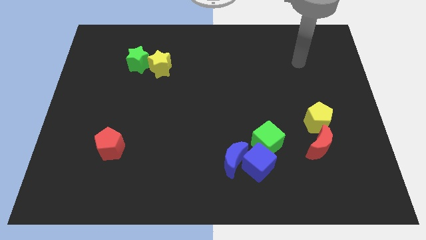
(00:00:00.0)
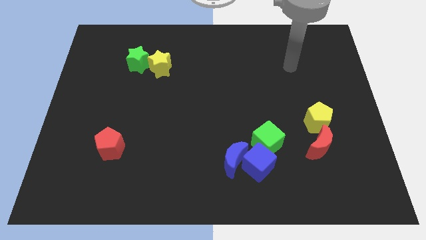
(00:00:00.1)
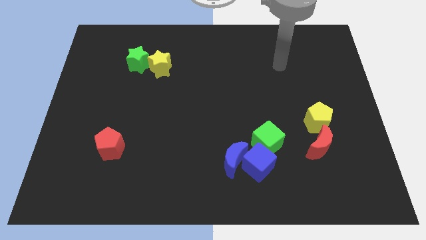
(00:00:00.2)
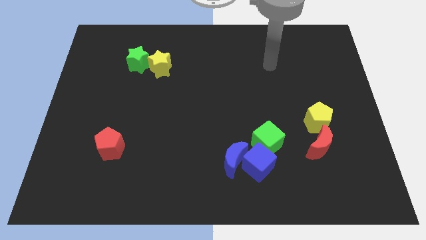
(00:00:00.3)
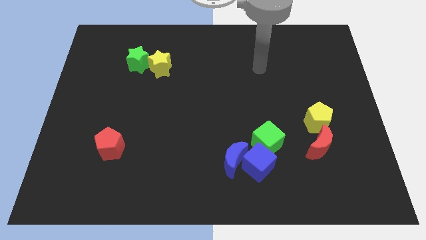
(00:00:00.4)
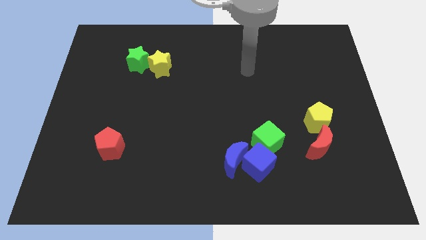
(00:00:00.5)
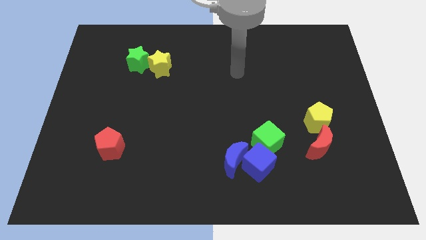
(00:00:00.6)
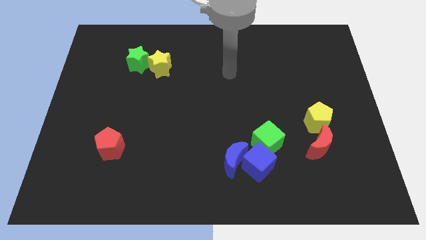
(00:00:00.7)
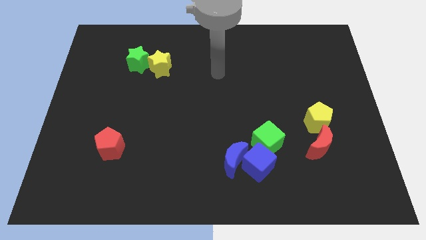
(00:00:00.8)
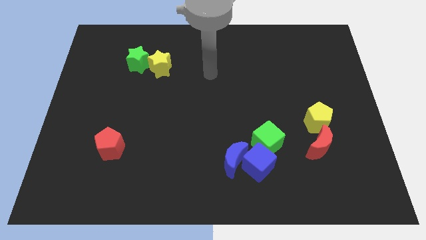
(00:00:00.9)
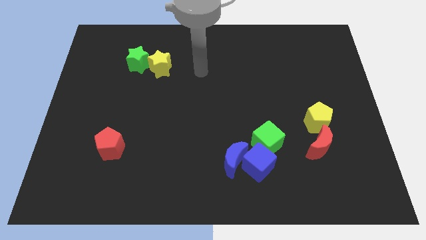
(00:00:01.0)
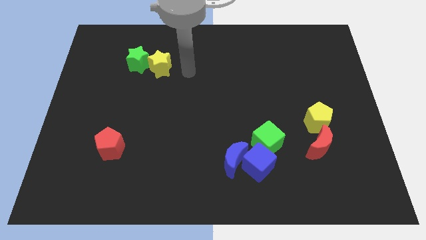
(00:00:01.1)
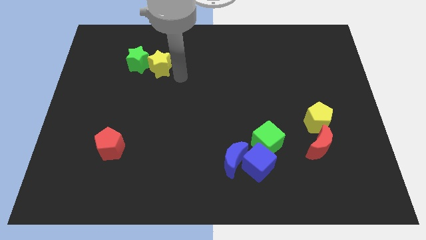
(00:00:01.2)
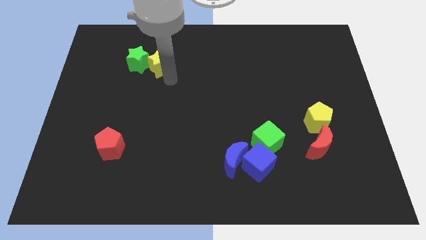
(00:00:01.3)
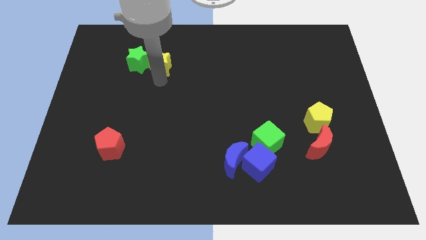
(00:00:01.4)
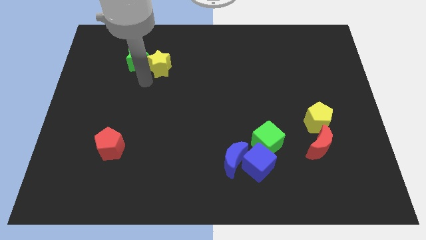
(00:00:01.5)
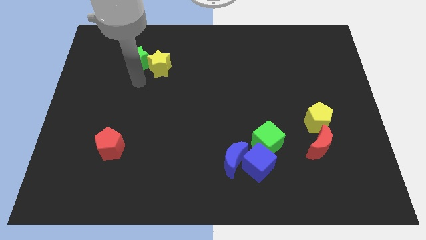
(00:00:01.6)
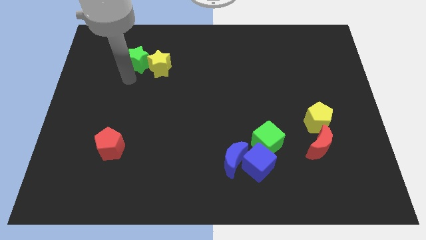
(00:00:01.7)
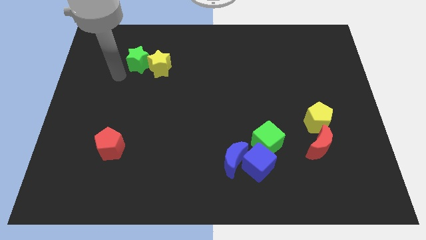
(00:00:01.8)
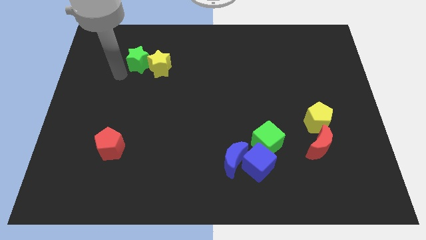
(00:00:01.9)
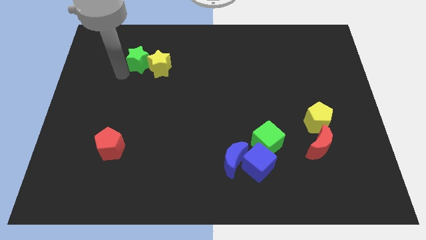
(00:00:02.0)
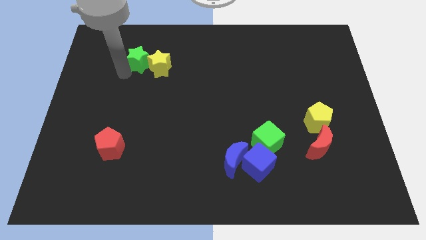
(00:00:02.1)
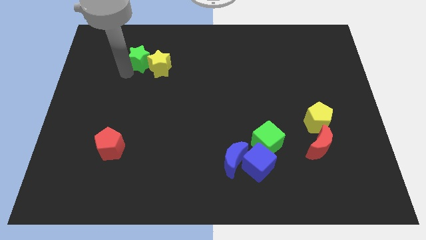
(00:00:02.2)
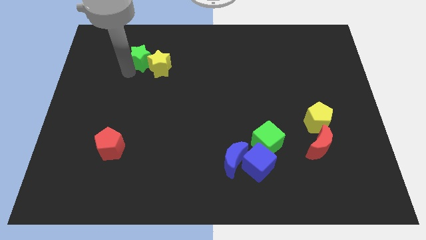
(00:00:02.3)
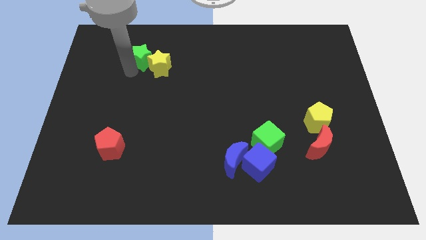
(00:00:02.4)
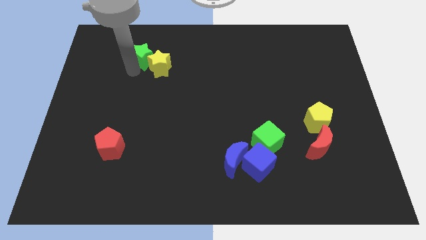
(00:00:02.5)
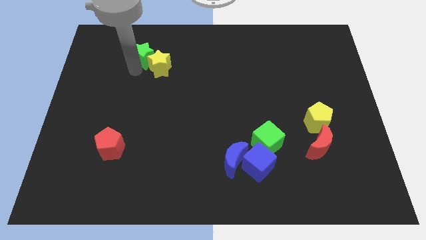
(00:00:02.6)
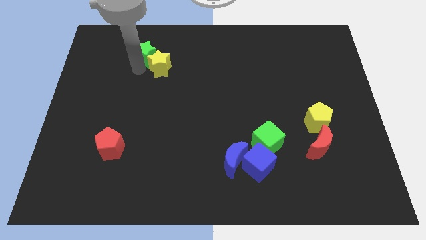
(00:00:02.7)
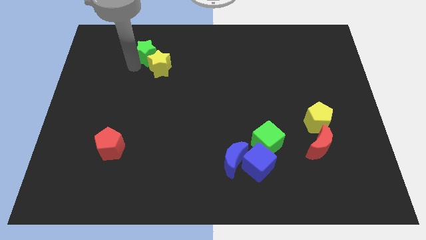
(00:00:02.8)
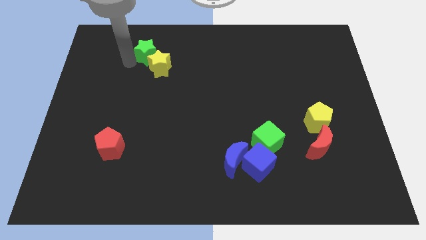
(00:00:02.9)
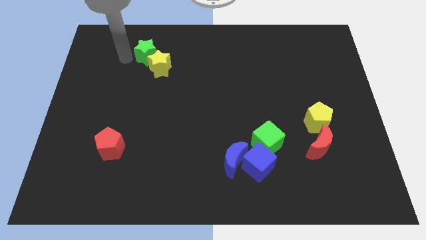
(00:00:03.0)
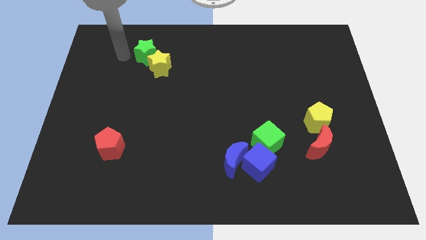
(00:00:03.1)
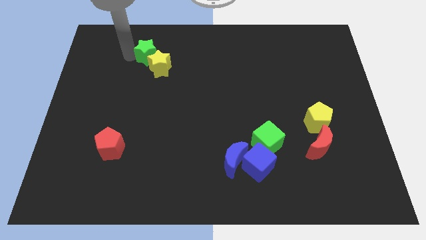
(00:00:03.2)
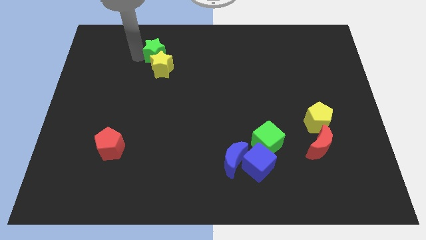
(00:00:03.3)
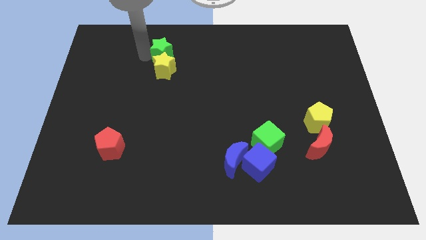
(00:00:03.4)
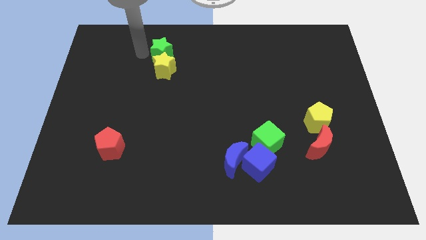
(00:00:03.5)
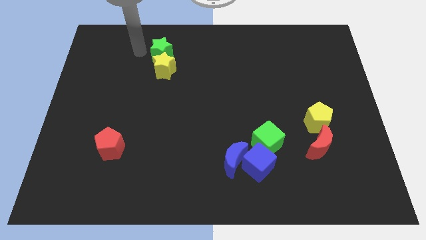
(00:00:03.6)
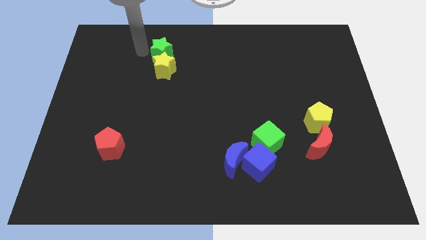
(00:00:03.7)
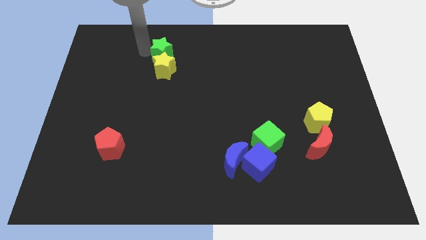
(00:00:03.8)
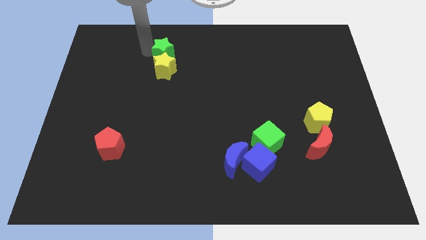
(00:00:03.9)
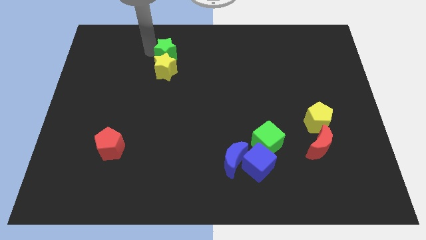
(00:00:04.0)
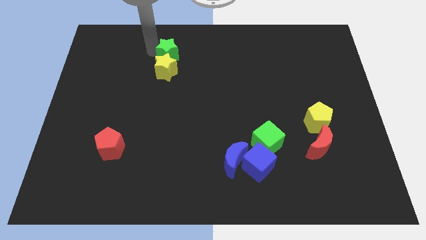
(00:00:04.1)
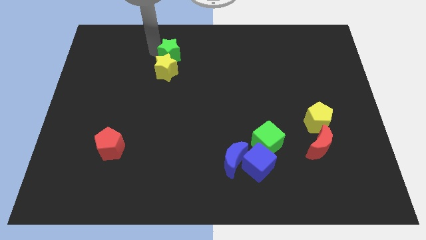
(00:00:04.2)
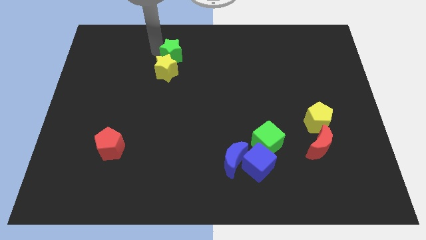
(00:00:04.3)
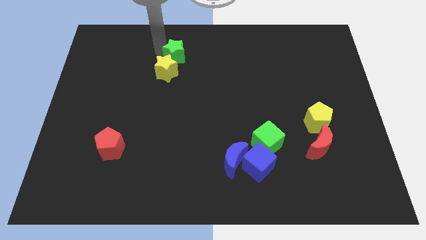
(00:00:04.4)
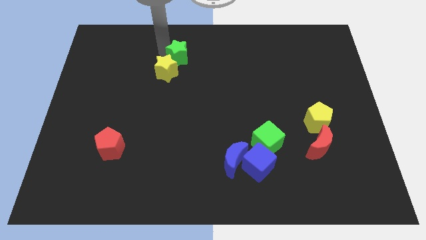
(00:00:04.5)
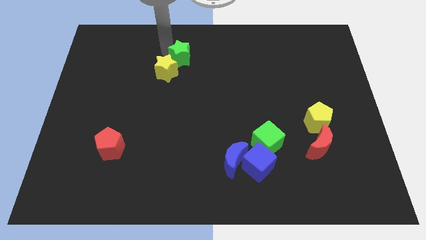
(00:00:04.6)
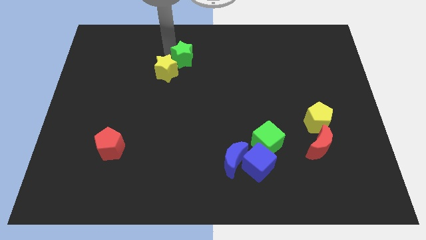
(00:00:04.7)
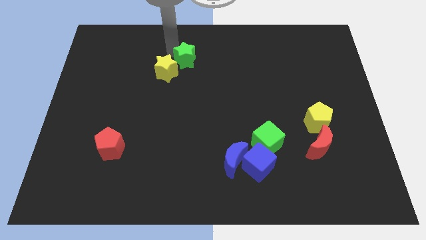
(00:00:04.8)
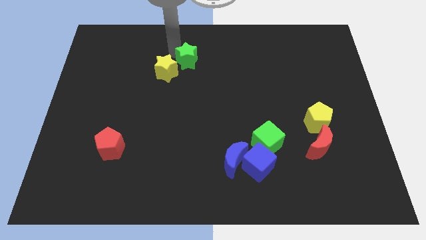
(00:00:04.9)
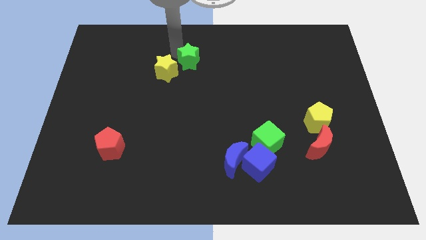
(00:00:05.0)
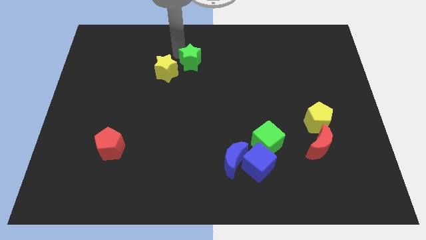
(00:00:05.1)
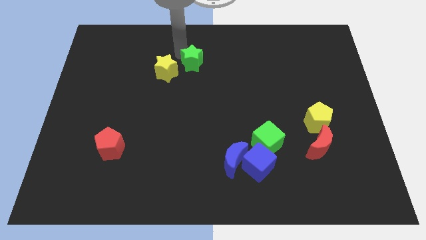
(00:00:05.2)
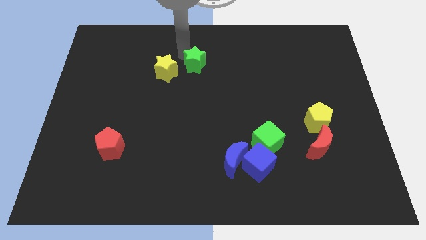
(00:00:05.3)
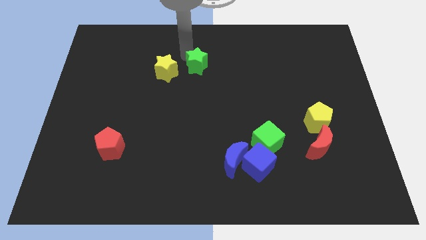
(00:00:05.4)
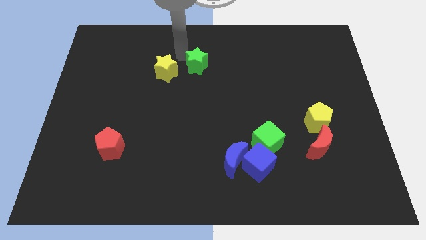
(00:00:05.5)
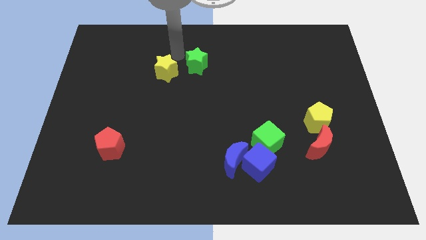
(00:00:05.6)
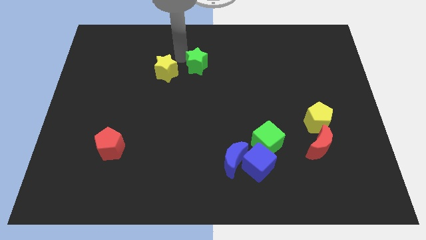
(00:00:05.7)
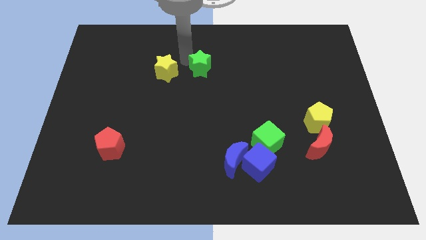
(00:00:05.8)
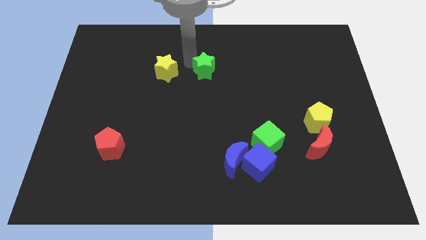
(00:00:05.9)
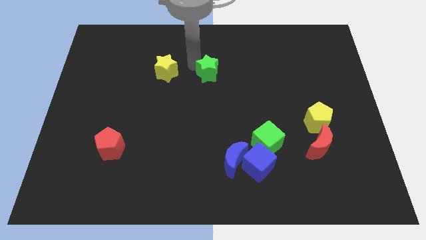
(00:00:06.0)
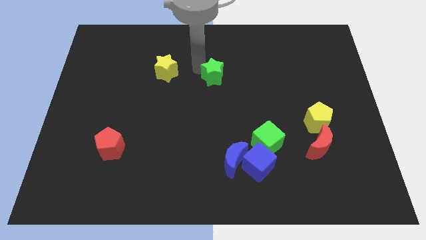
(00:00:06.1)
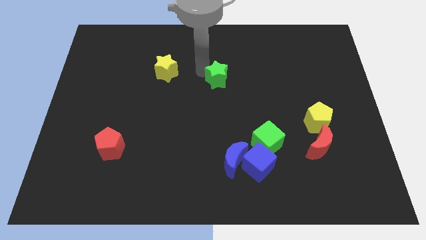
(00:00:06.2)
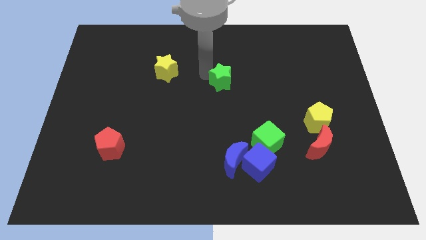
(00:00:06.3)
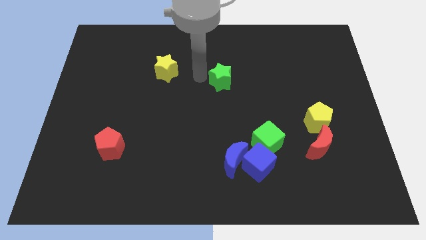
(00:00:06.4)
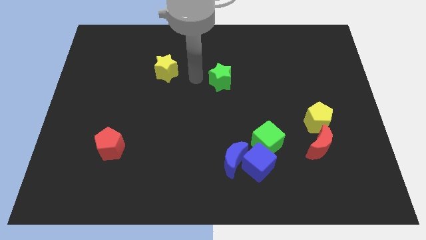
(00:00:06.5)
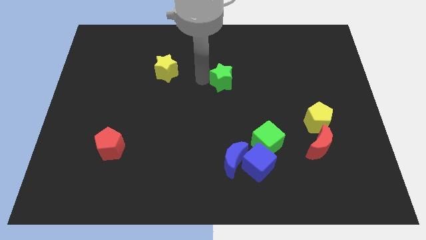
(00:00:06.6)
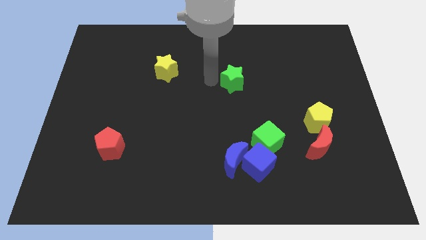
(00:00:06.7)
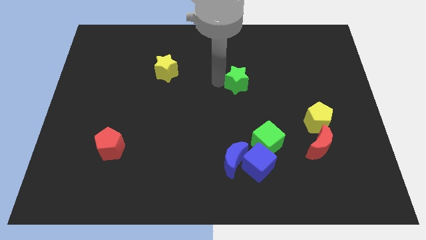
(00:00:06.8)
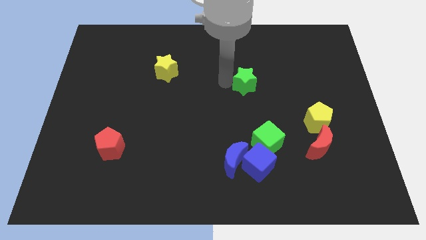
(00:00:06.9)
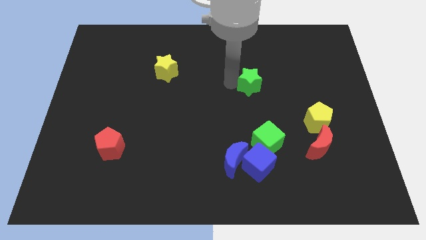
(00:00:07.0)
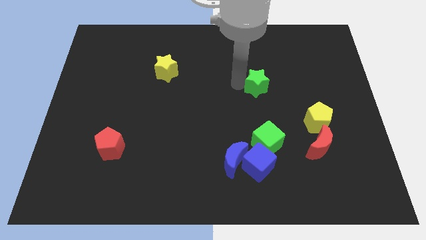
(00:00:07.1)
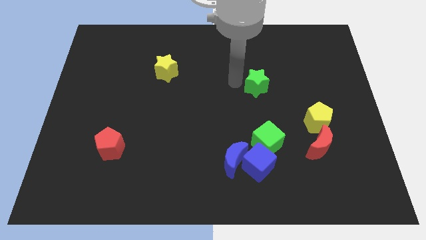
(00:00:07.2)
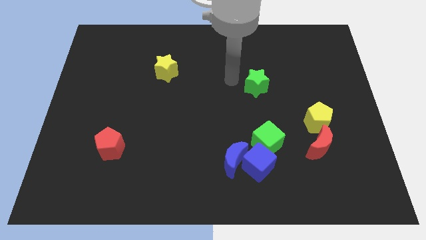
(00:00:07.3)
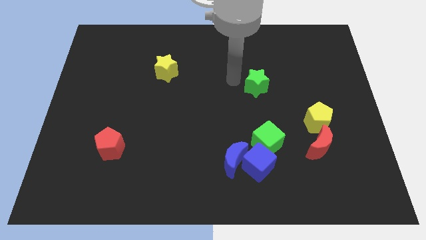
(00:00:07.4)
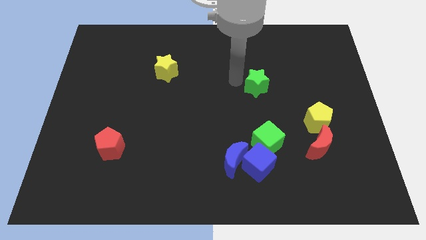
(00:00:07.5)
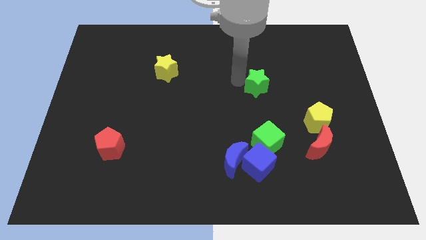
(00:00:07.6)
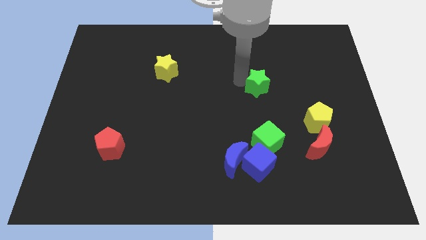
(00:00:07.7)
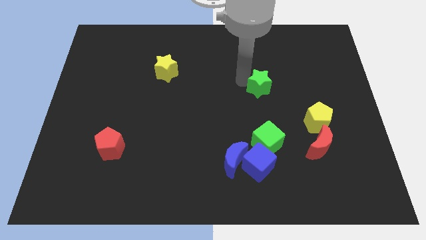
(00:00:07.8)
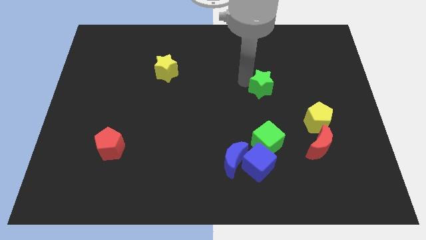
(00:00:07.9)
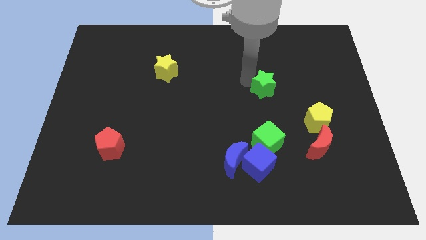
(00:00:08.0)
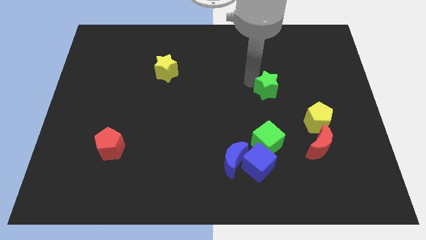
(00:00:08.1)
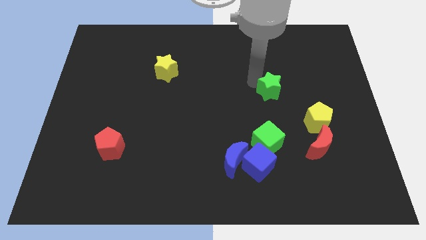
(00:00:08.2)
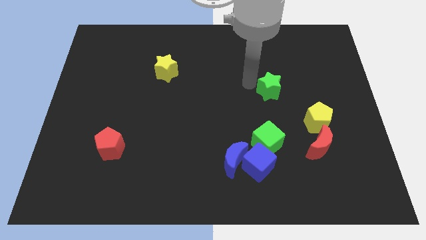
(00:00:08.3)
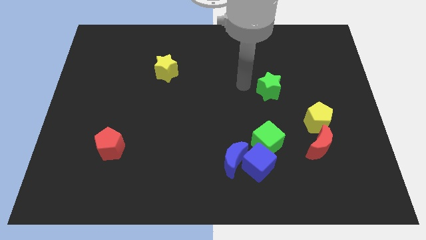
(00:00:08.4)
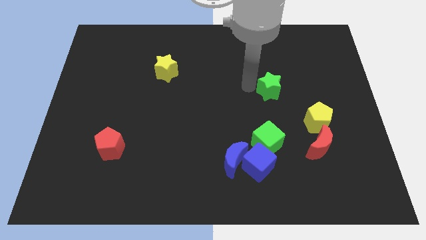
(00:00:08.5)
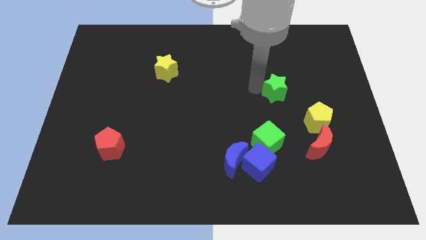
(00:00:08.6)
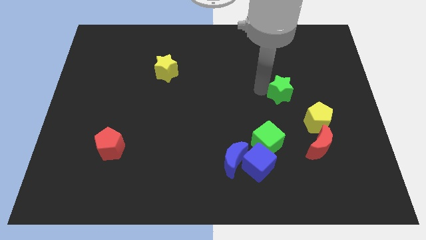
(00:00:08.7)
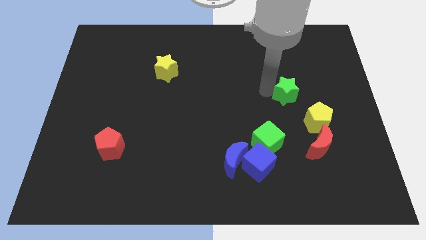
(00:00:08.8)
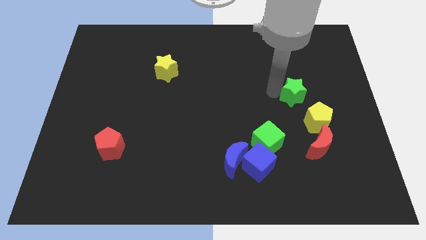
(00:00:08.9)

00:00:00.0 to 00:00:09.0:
move the green star to the top of the red moon
